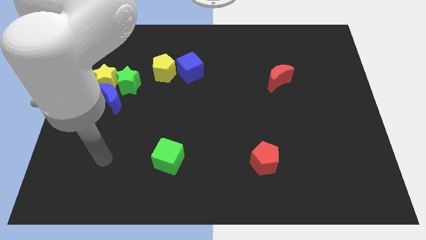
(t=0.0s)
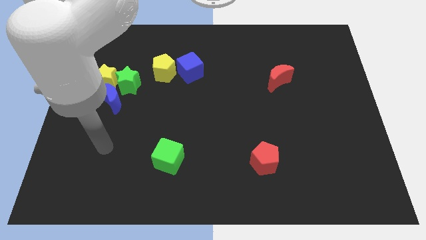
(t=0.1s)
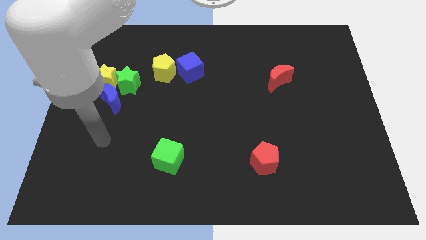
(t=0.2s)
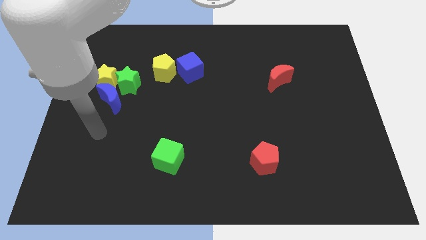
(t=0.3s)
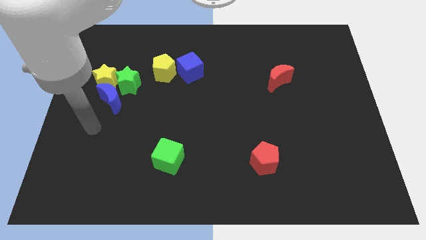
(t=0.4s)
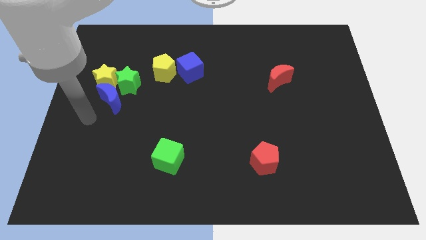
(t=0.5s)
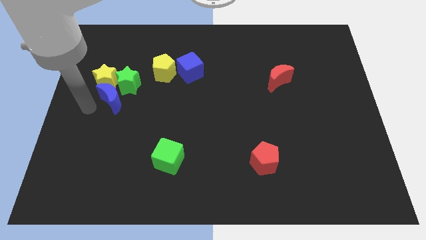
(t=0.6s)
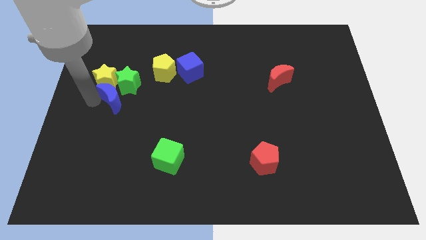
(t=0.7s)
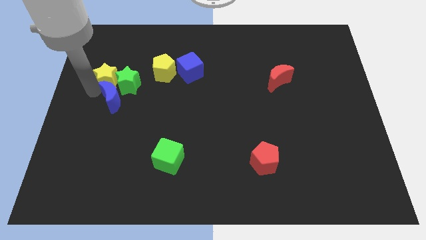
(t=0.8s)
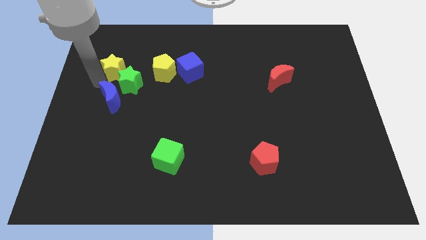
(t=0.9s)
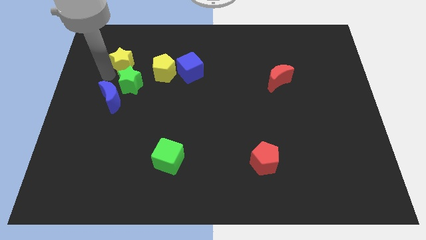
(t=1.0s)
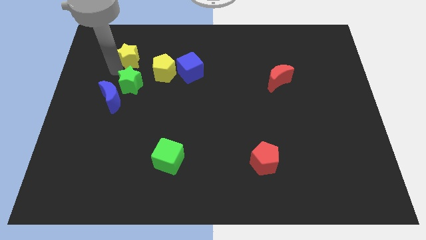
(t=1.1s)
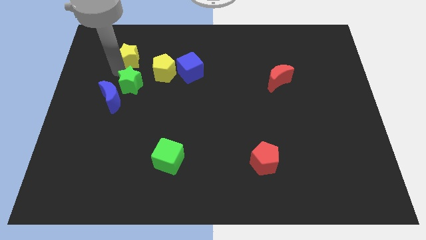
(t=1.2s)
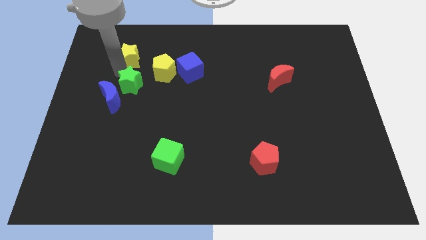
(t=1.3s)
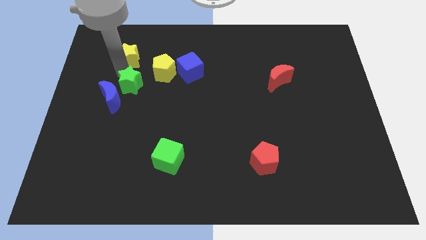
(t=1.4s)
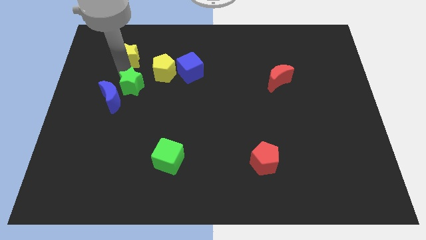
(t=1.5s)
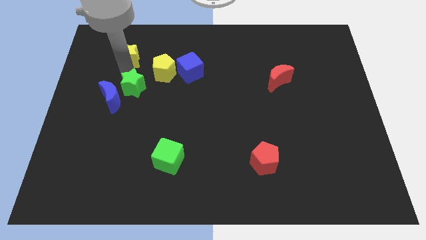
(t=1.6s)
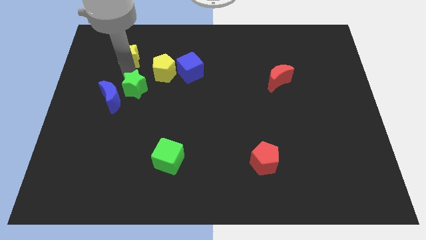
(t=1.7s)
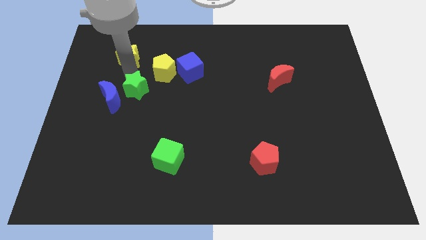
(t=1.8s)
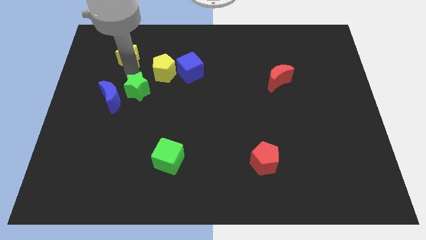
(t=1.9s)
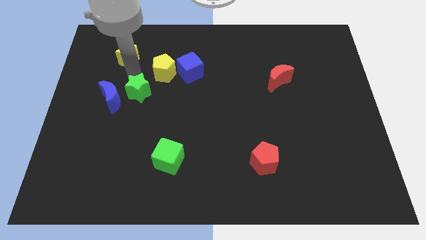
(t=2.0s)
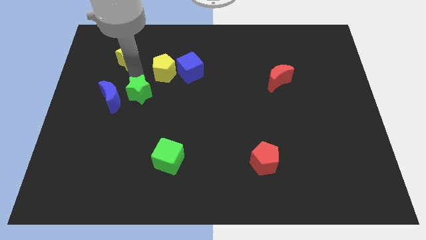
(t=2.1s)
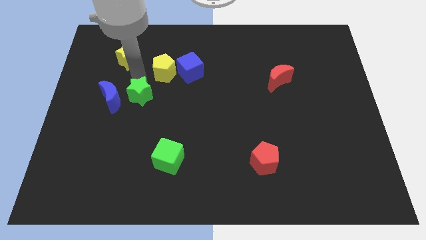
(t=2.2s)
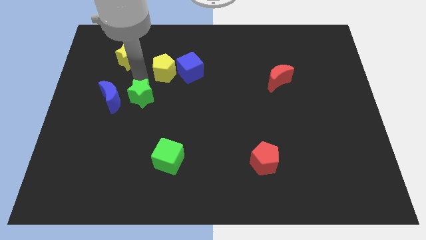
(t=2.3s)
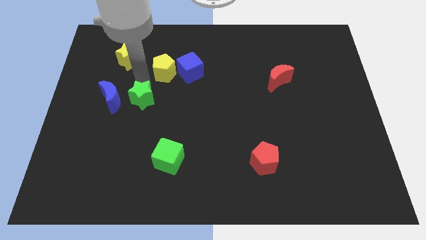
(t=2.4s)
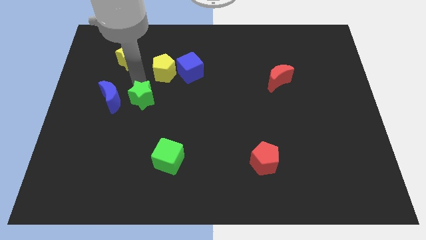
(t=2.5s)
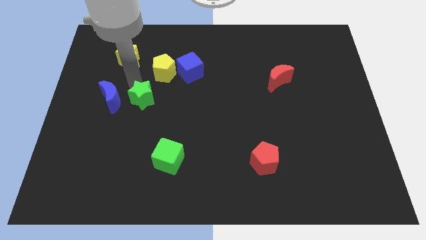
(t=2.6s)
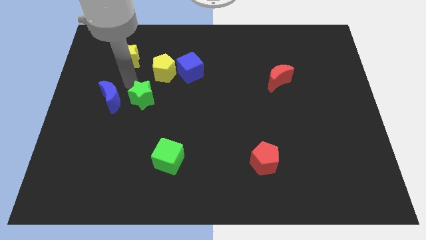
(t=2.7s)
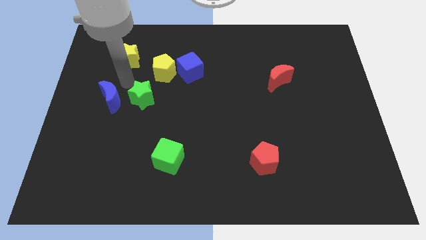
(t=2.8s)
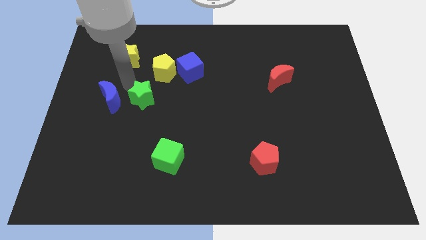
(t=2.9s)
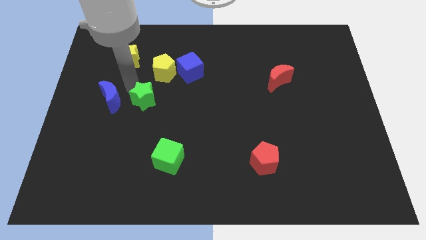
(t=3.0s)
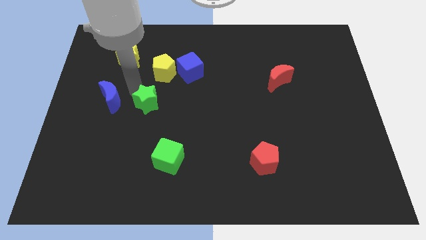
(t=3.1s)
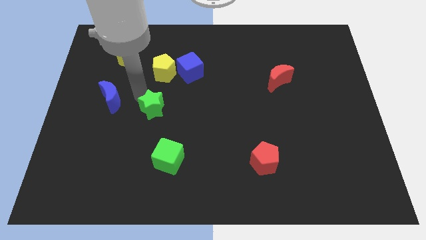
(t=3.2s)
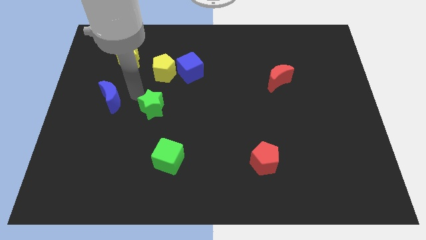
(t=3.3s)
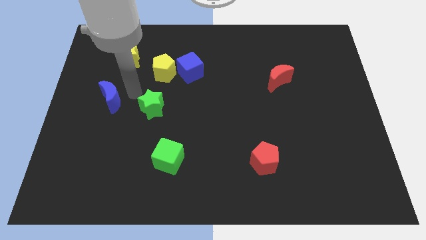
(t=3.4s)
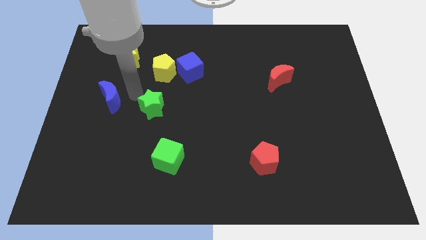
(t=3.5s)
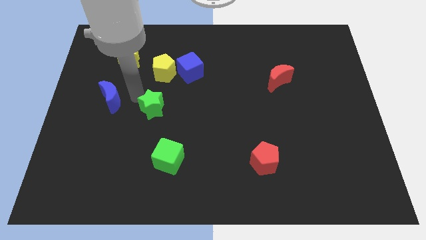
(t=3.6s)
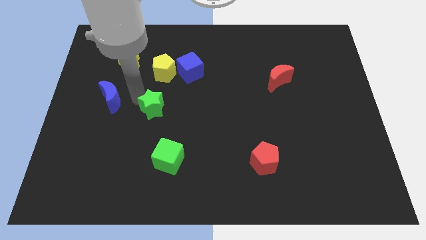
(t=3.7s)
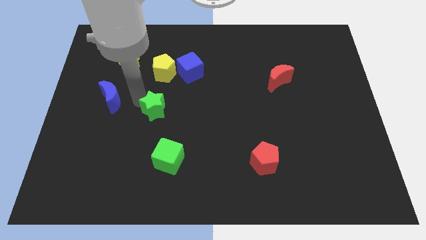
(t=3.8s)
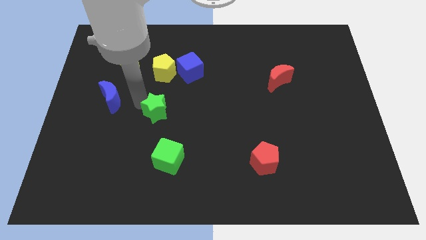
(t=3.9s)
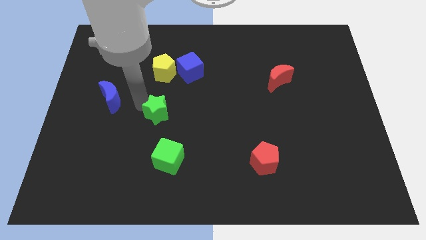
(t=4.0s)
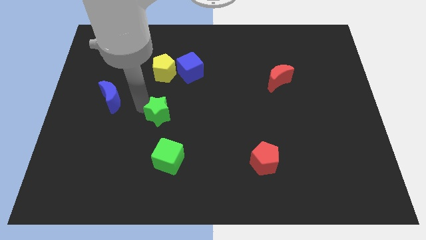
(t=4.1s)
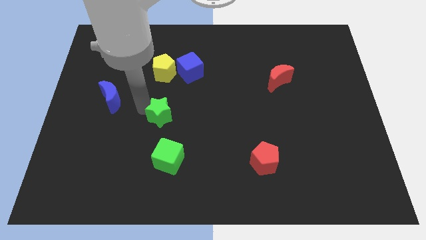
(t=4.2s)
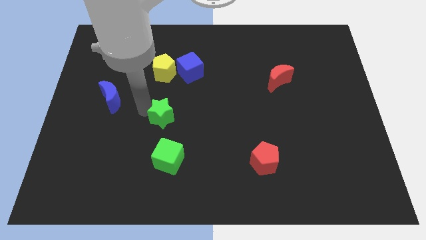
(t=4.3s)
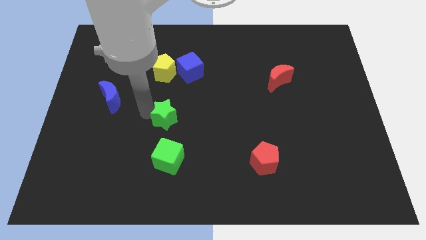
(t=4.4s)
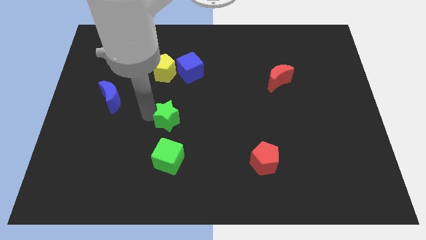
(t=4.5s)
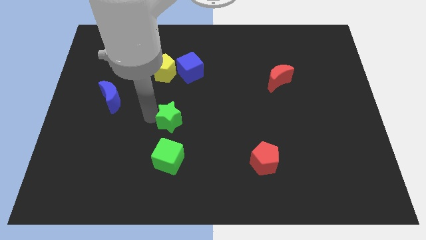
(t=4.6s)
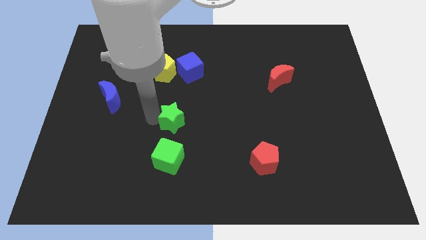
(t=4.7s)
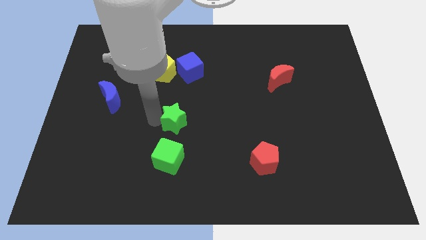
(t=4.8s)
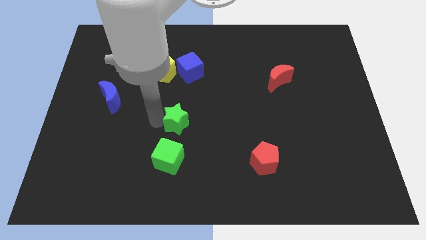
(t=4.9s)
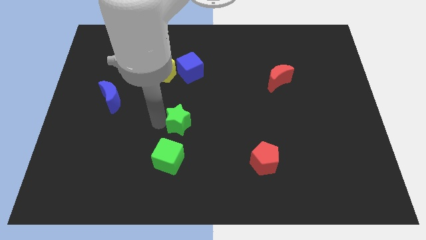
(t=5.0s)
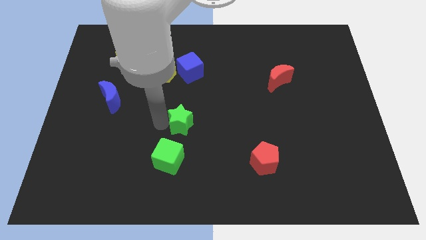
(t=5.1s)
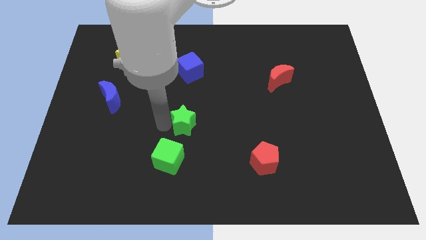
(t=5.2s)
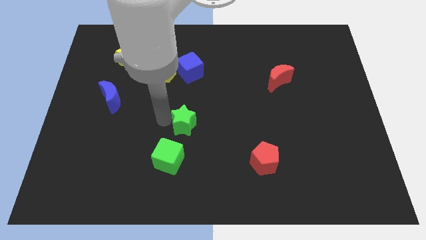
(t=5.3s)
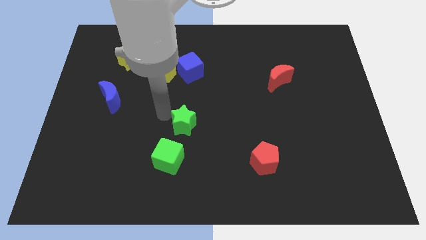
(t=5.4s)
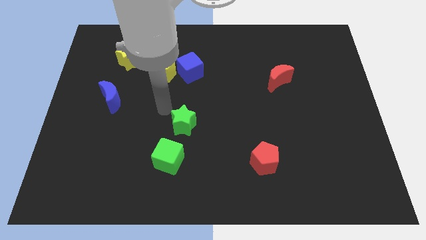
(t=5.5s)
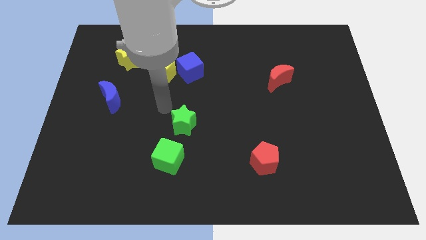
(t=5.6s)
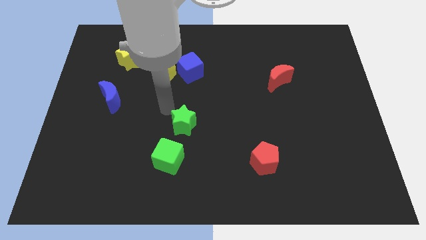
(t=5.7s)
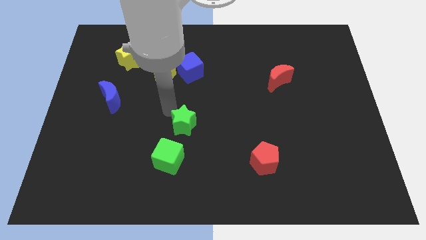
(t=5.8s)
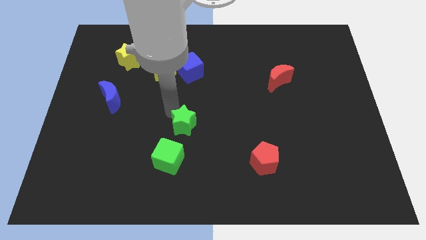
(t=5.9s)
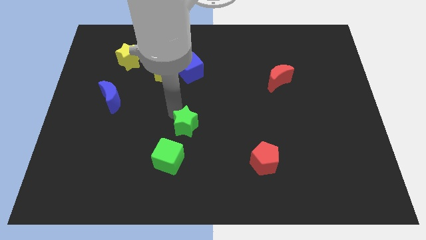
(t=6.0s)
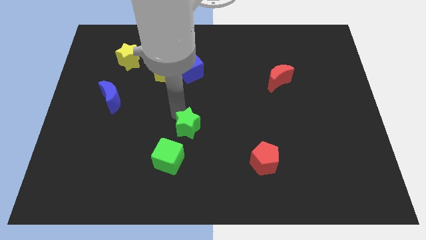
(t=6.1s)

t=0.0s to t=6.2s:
push the green star diagonally down and to the right

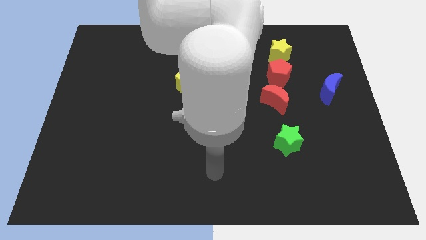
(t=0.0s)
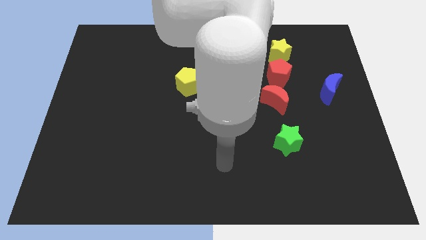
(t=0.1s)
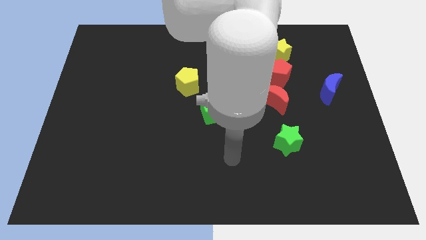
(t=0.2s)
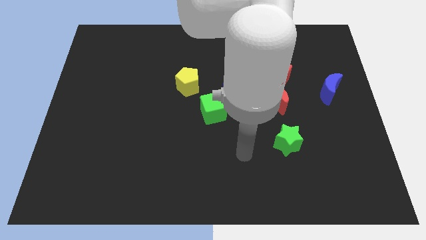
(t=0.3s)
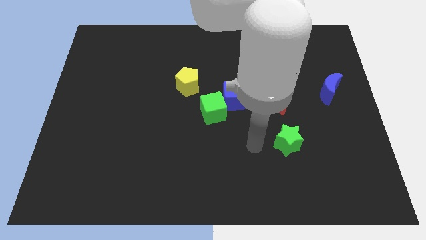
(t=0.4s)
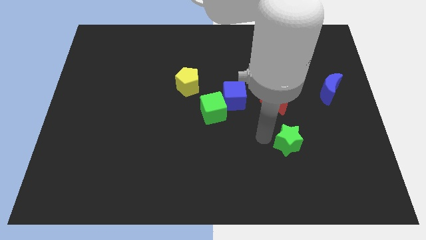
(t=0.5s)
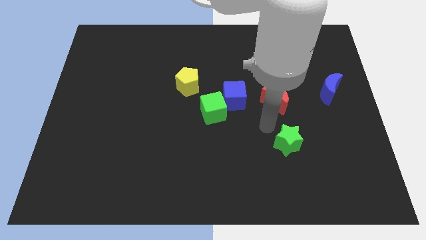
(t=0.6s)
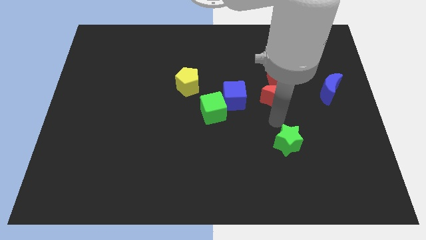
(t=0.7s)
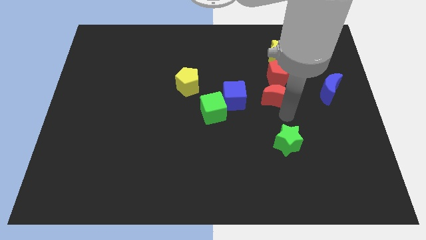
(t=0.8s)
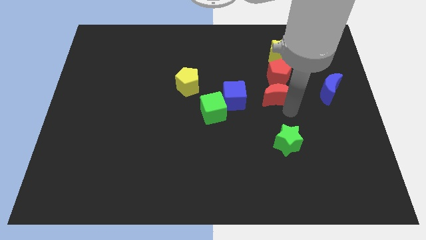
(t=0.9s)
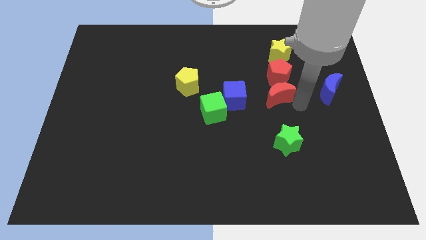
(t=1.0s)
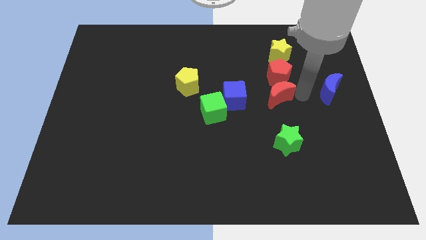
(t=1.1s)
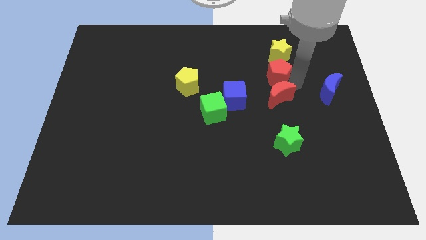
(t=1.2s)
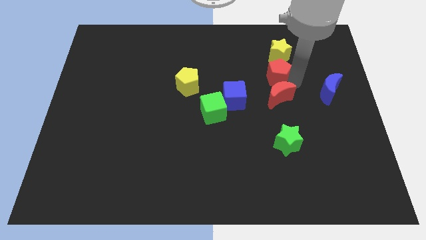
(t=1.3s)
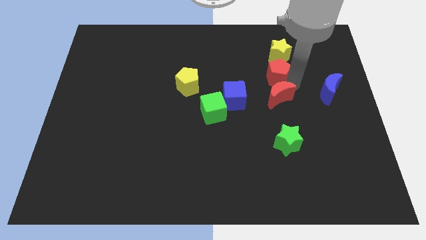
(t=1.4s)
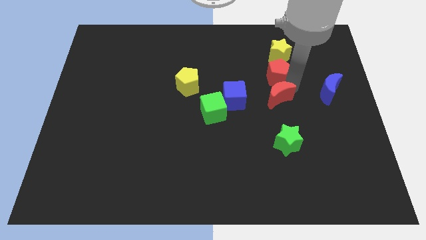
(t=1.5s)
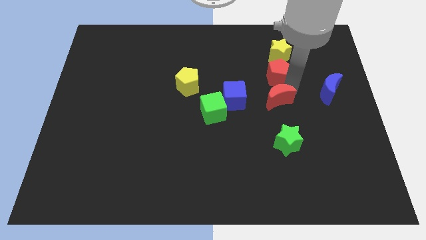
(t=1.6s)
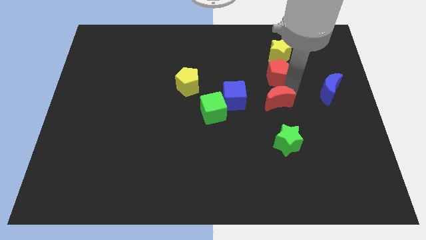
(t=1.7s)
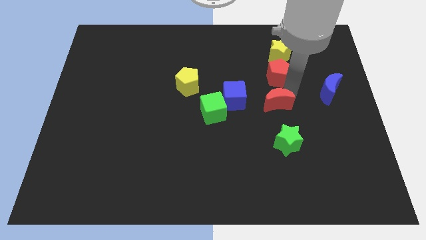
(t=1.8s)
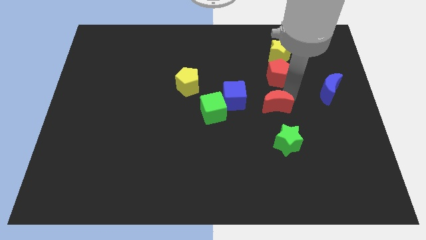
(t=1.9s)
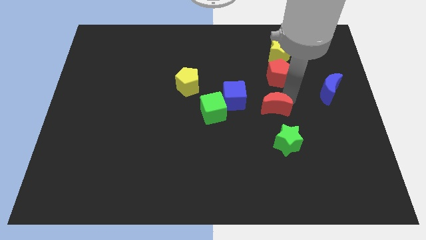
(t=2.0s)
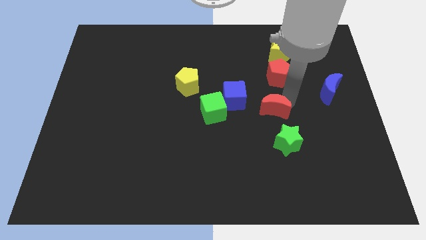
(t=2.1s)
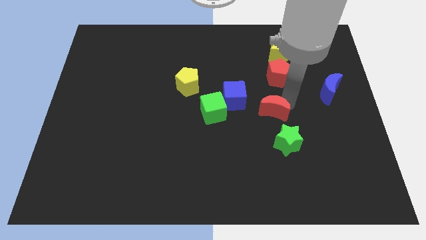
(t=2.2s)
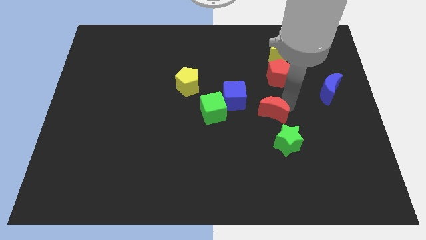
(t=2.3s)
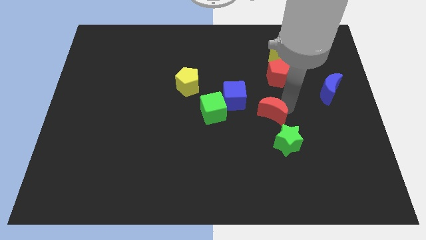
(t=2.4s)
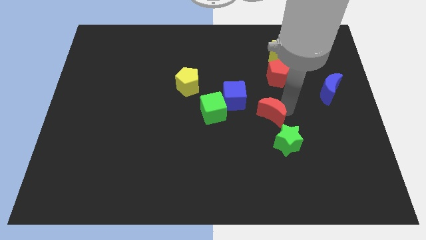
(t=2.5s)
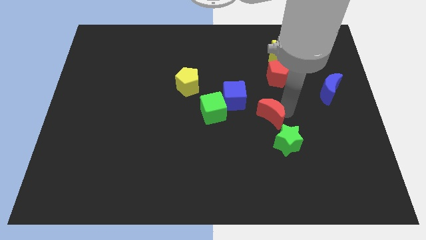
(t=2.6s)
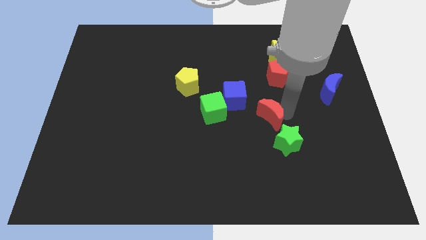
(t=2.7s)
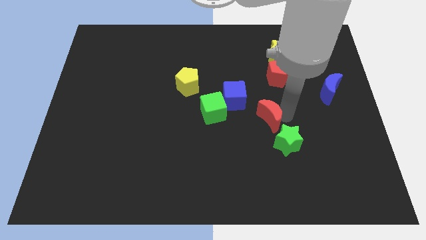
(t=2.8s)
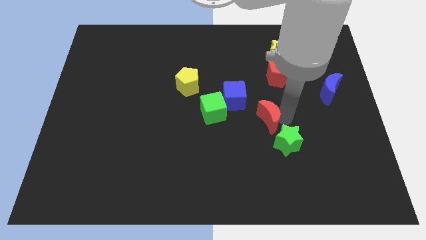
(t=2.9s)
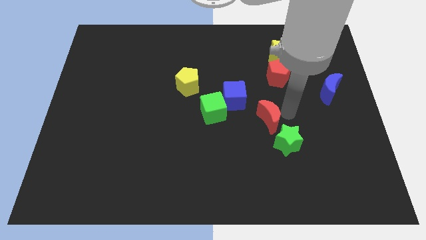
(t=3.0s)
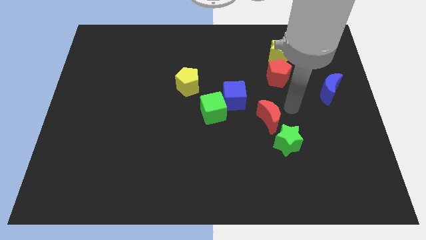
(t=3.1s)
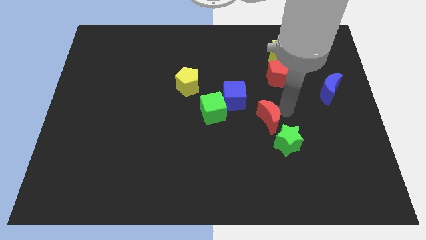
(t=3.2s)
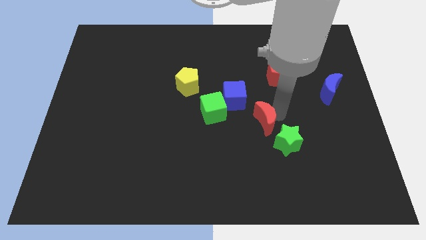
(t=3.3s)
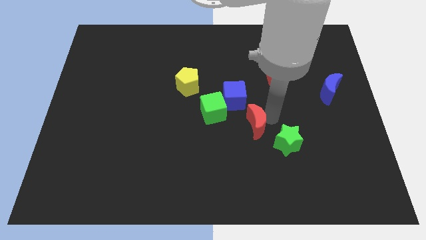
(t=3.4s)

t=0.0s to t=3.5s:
push the red moon a little diagonally downwards and left
